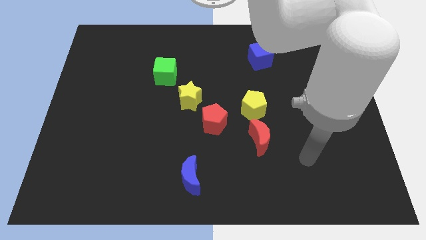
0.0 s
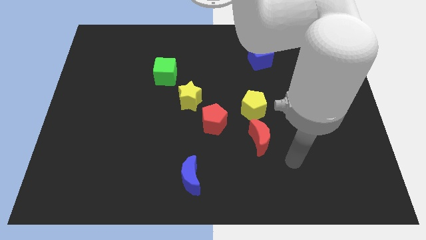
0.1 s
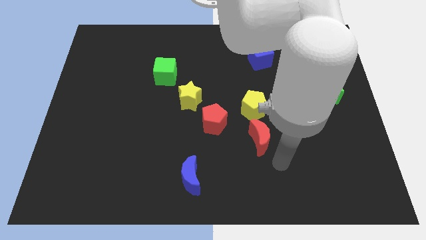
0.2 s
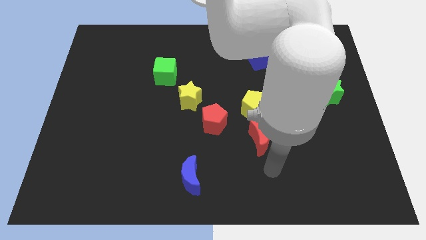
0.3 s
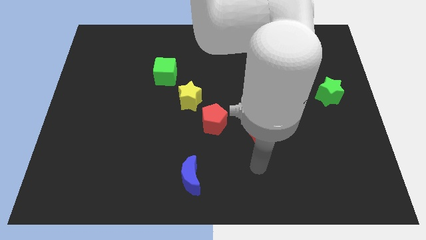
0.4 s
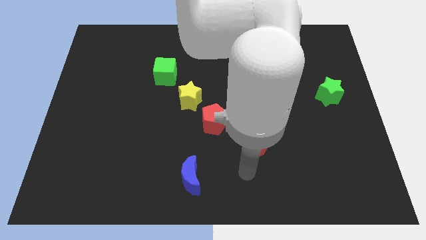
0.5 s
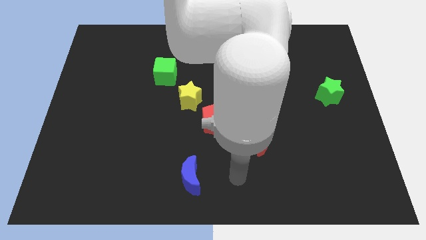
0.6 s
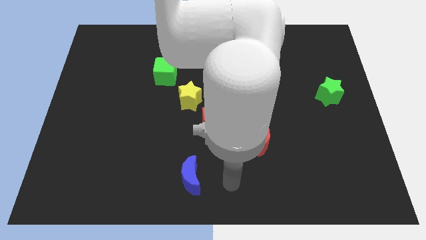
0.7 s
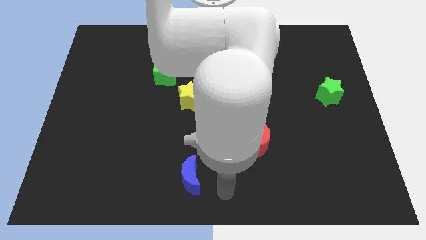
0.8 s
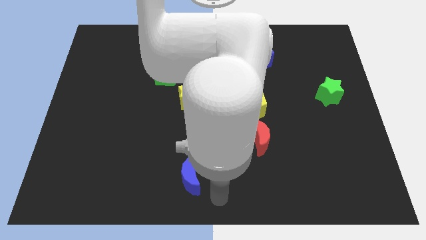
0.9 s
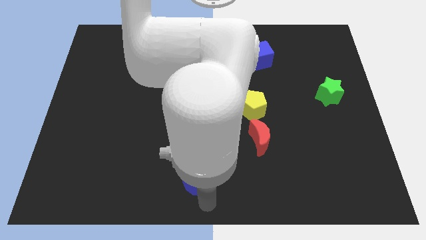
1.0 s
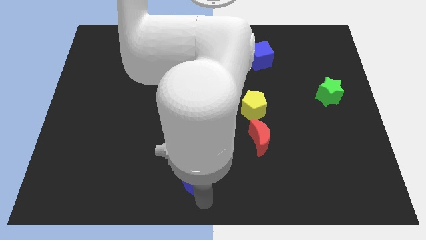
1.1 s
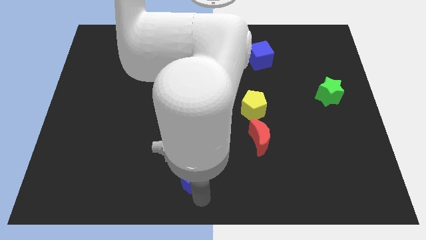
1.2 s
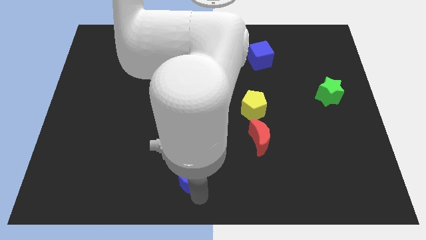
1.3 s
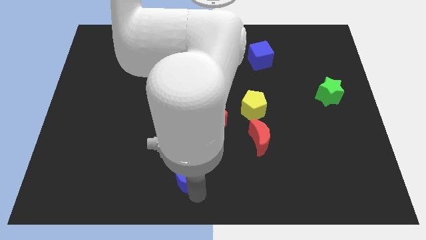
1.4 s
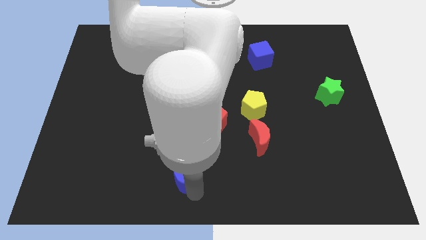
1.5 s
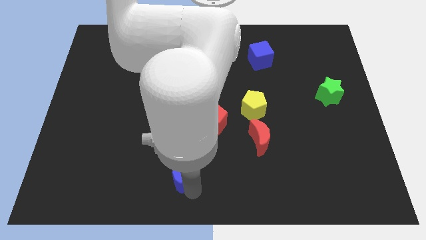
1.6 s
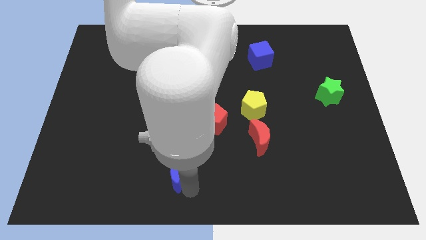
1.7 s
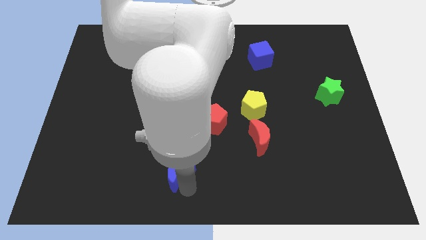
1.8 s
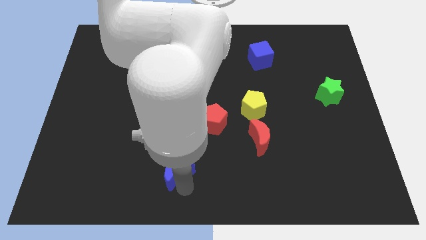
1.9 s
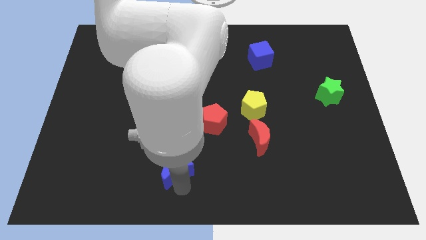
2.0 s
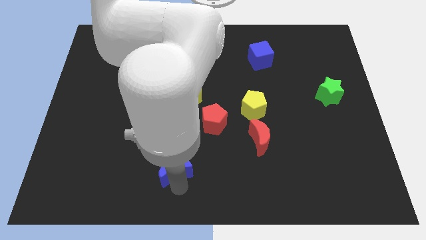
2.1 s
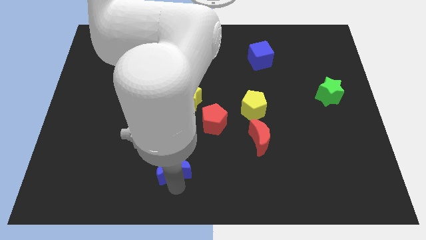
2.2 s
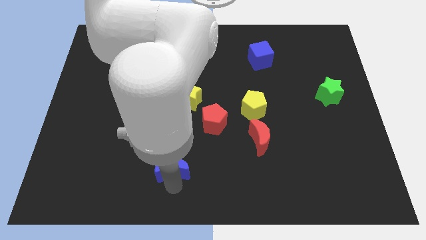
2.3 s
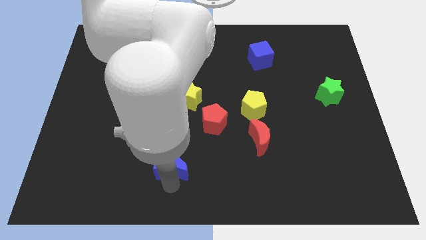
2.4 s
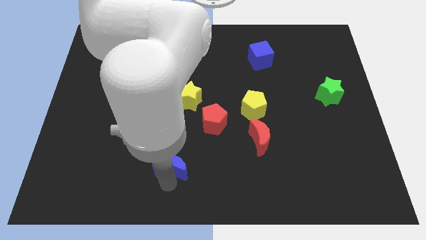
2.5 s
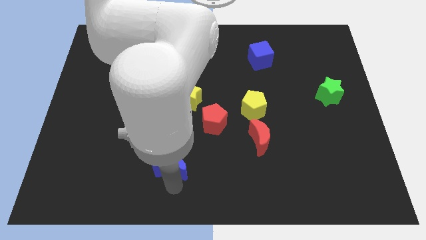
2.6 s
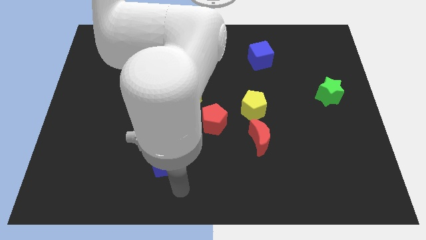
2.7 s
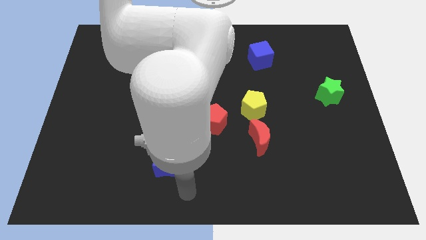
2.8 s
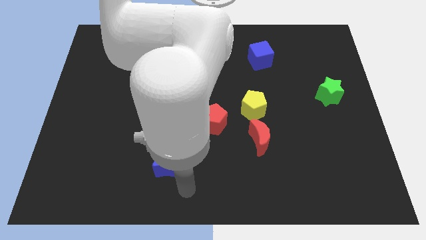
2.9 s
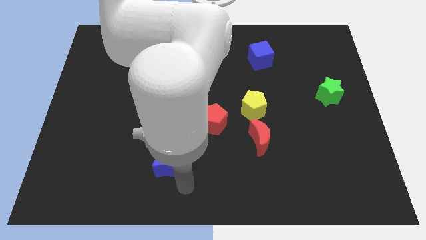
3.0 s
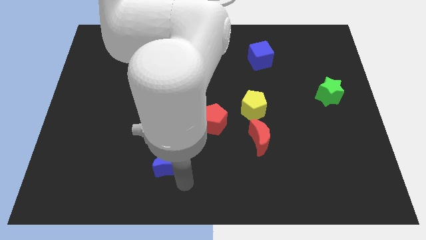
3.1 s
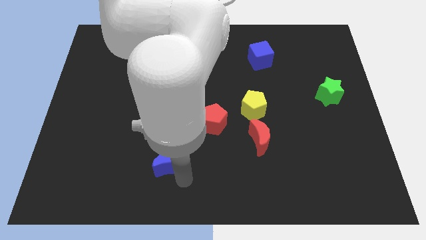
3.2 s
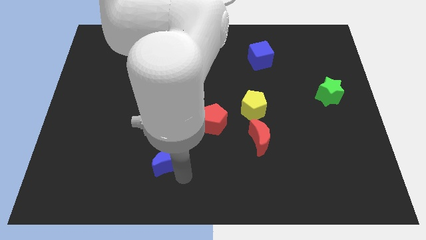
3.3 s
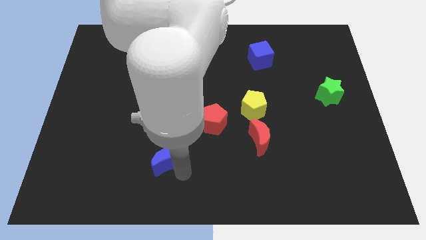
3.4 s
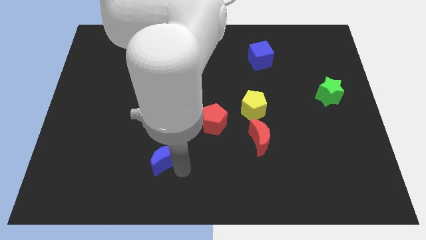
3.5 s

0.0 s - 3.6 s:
slightly move the blue moon diagonally up and to the left

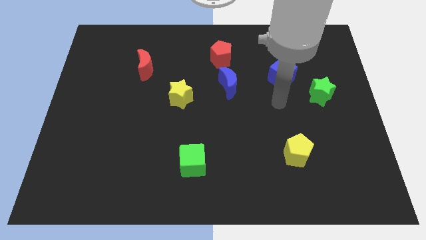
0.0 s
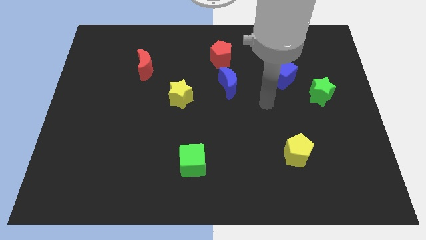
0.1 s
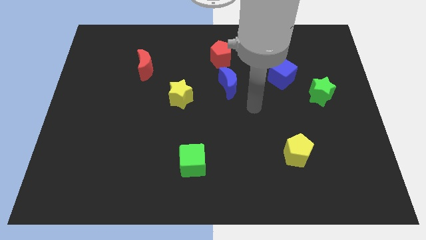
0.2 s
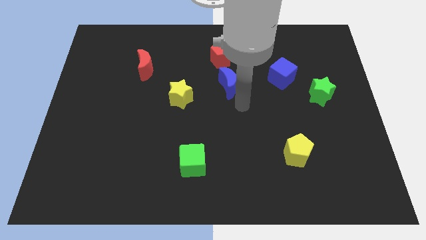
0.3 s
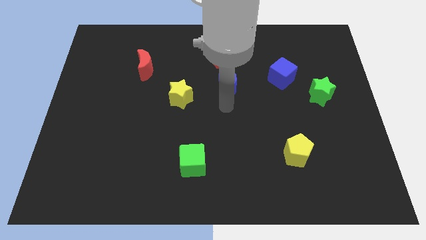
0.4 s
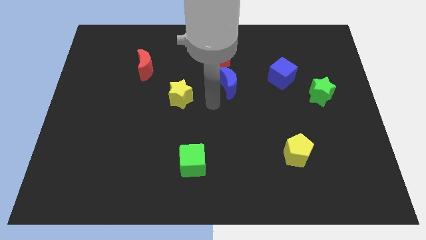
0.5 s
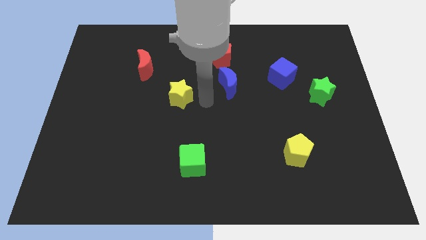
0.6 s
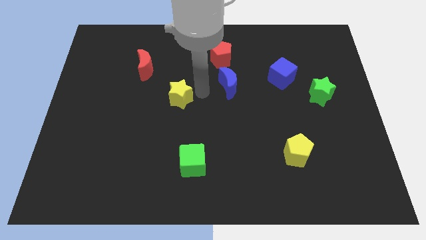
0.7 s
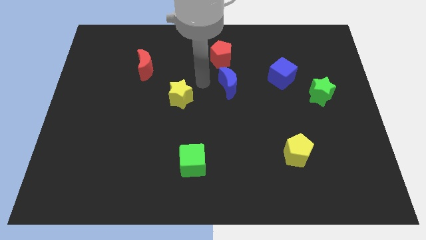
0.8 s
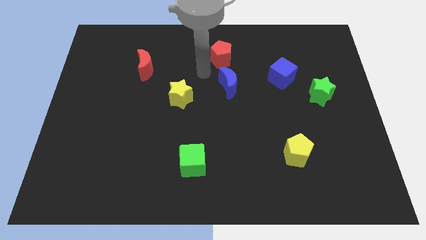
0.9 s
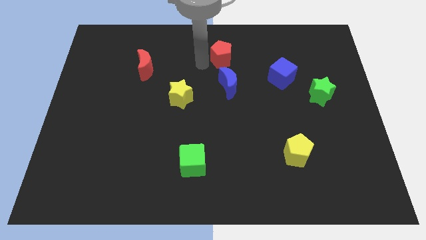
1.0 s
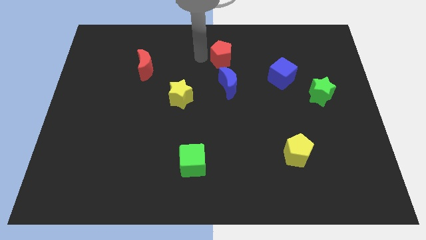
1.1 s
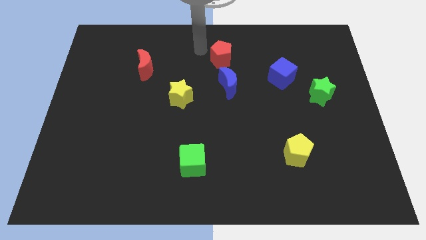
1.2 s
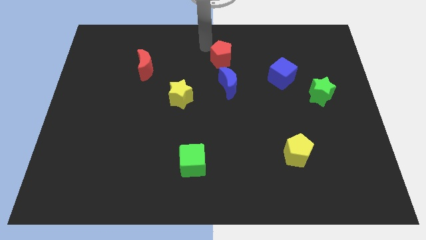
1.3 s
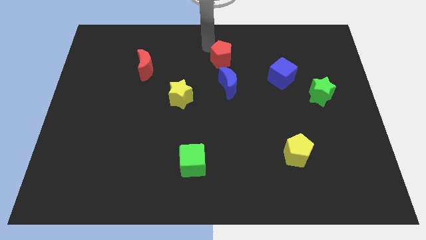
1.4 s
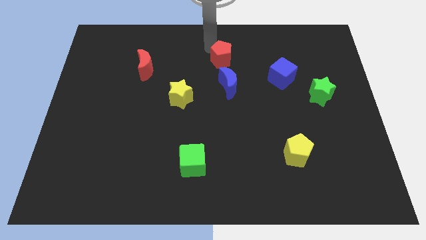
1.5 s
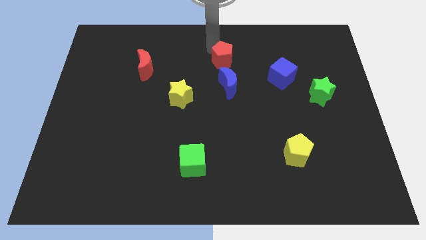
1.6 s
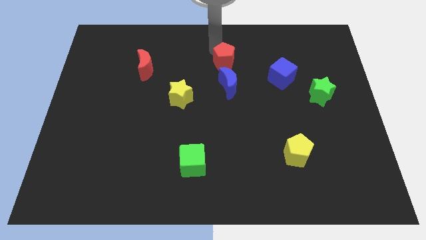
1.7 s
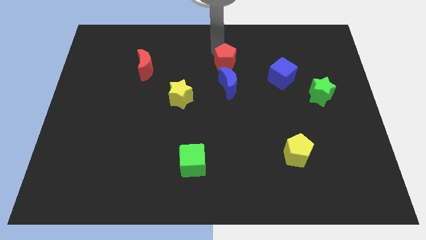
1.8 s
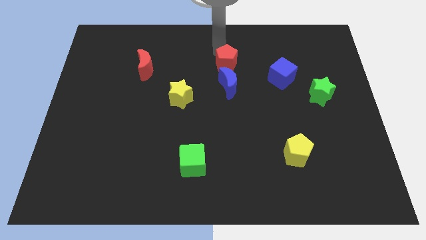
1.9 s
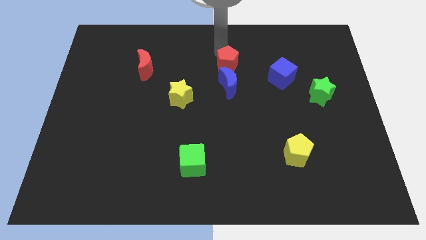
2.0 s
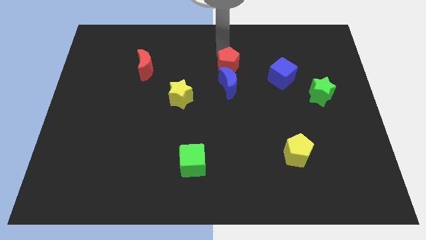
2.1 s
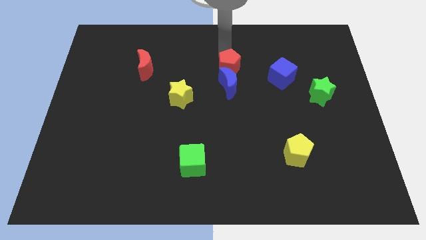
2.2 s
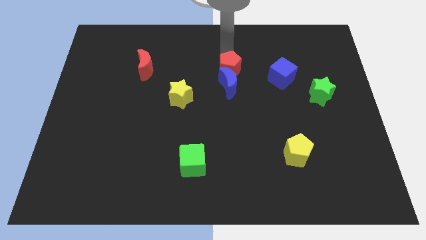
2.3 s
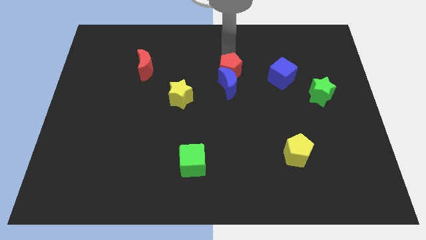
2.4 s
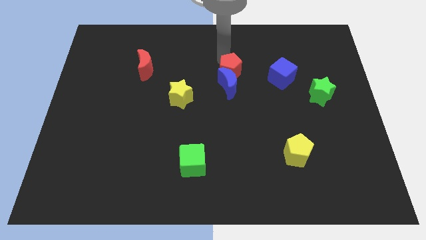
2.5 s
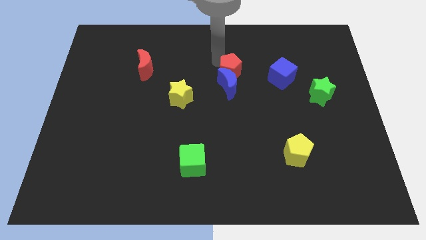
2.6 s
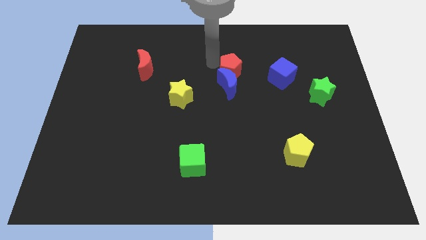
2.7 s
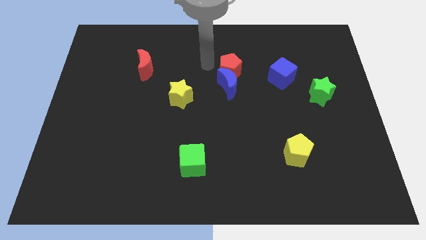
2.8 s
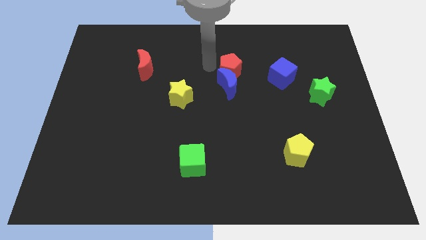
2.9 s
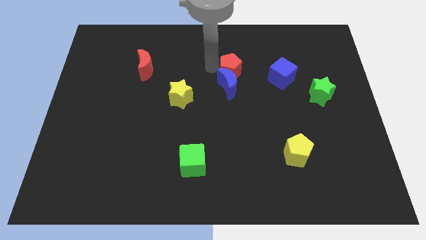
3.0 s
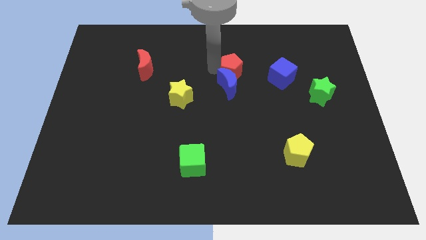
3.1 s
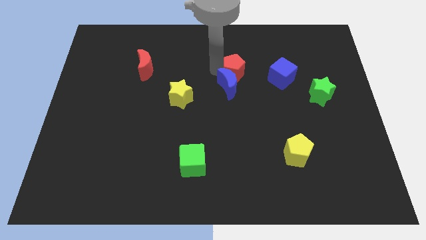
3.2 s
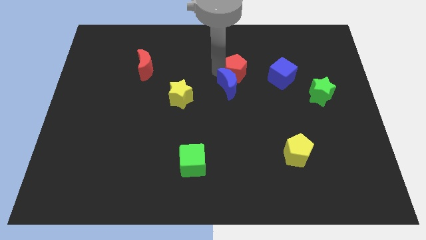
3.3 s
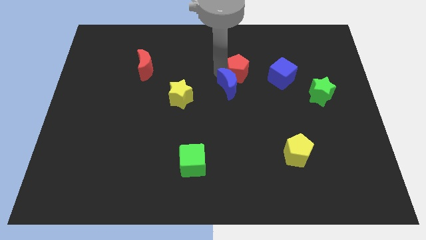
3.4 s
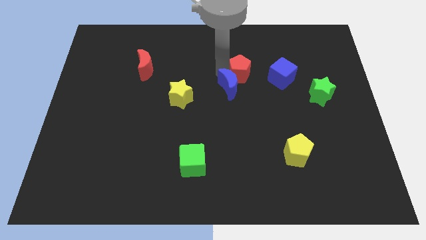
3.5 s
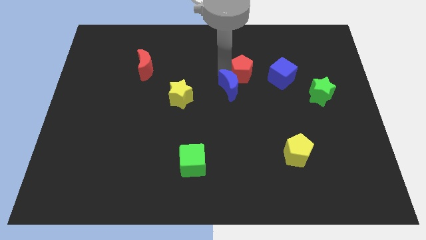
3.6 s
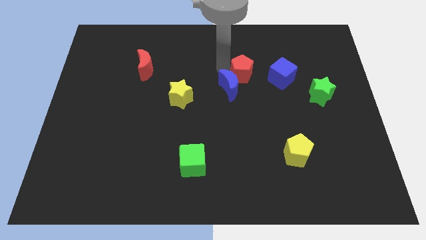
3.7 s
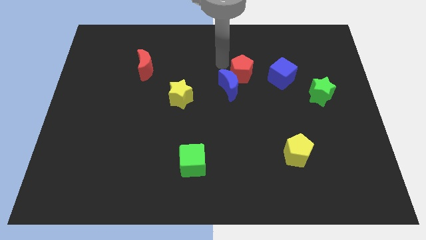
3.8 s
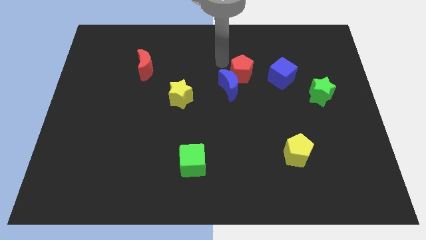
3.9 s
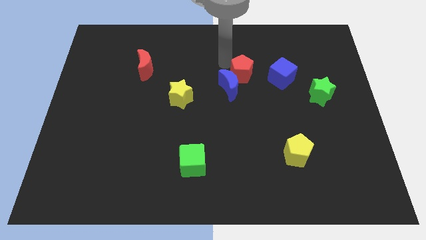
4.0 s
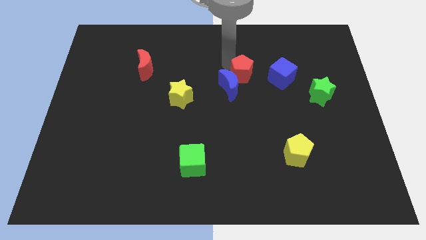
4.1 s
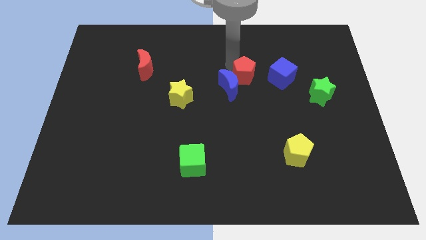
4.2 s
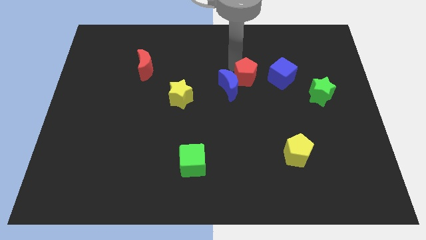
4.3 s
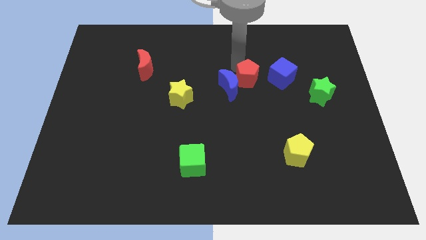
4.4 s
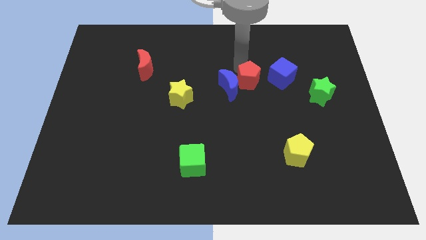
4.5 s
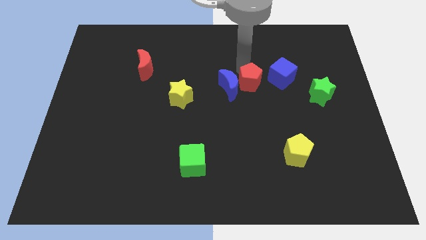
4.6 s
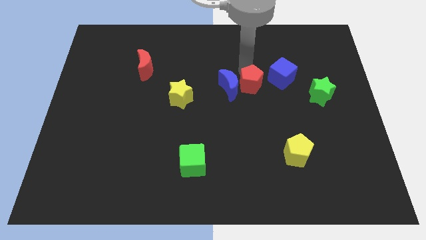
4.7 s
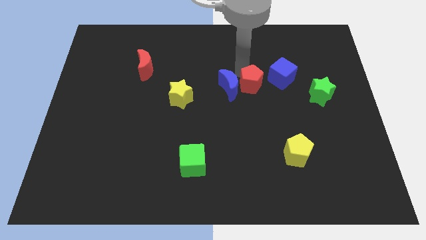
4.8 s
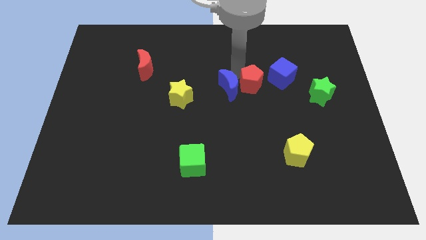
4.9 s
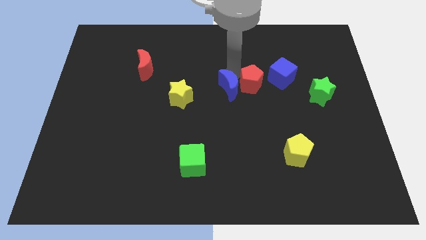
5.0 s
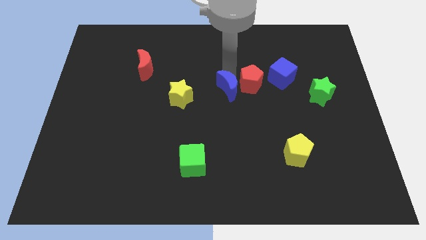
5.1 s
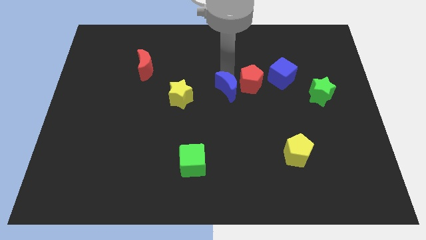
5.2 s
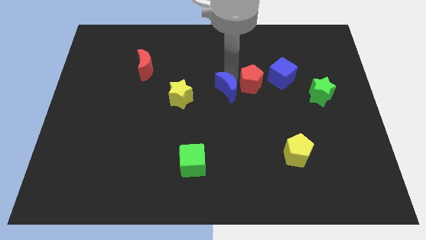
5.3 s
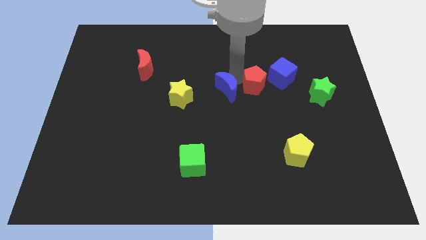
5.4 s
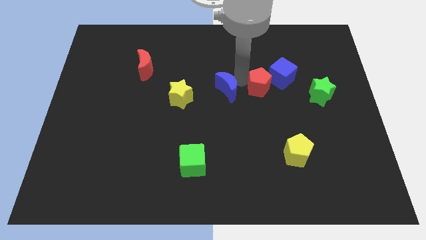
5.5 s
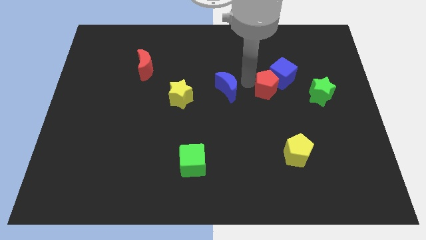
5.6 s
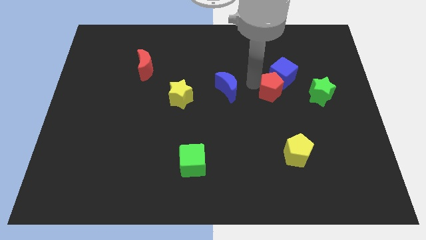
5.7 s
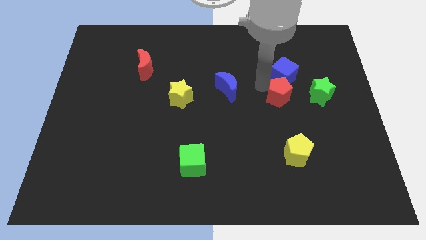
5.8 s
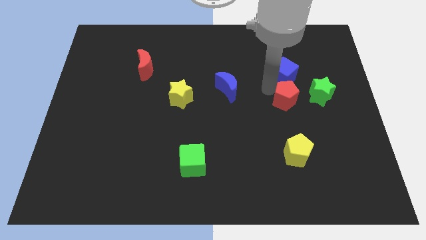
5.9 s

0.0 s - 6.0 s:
slide the red pentagon diagonally down and right
